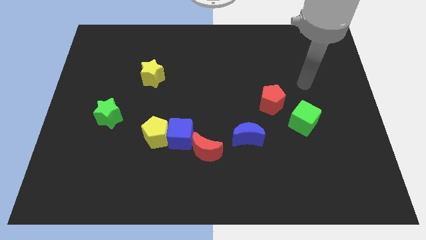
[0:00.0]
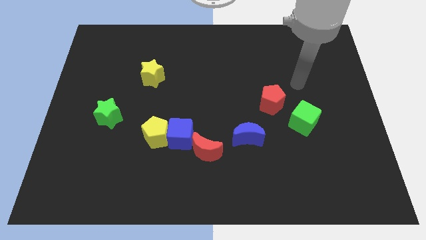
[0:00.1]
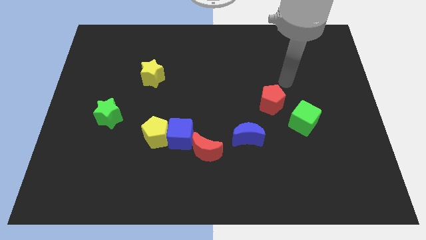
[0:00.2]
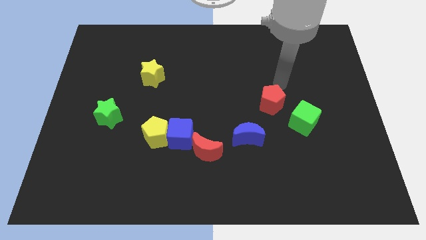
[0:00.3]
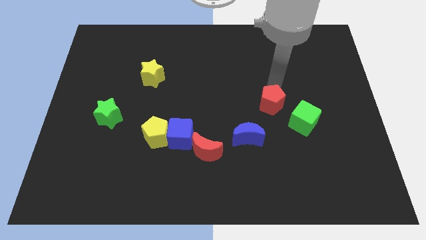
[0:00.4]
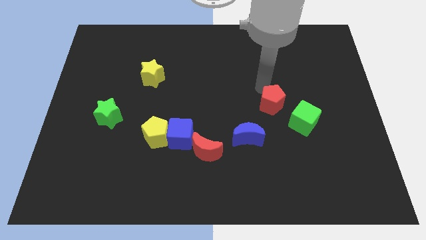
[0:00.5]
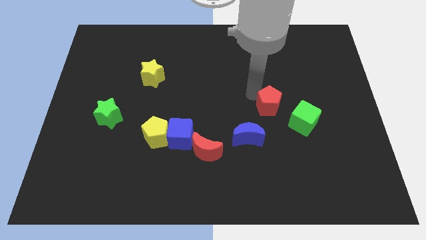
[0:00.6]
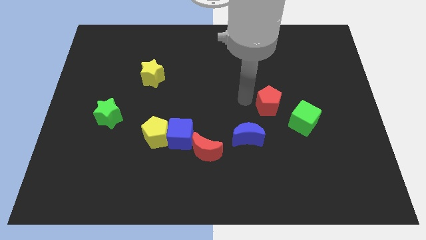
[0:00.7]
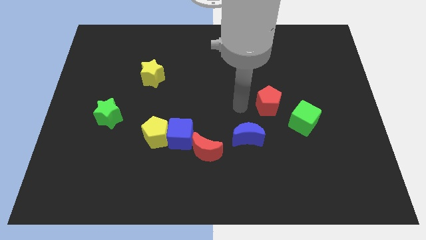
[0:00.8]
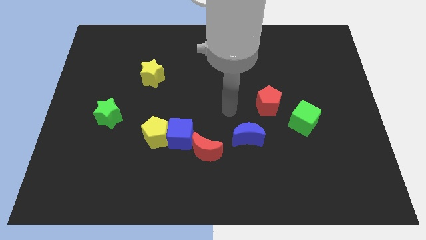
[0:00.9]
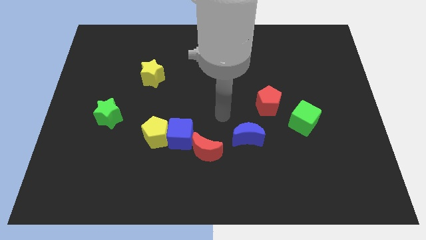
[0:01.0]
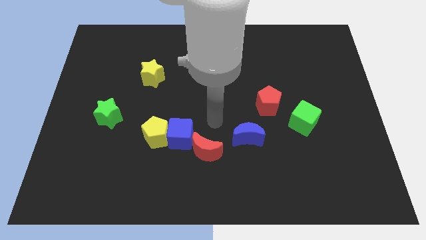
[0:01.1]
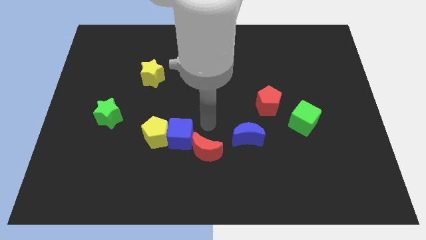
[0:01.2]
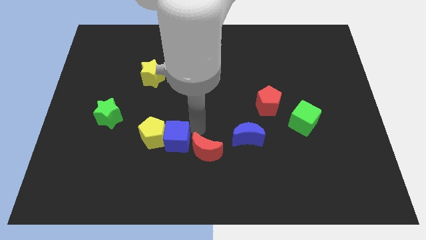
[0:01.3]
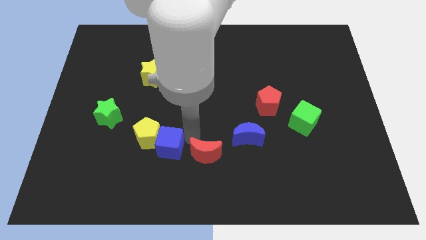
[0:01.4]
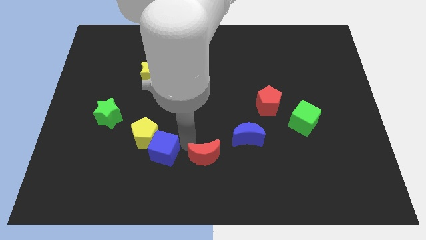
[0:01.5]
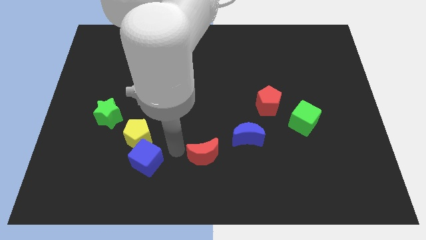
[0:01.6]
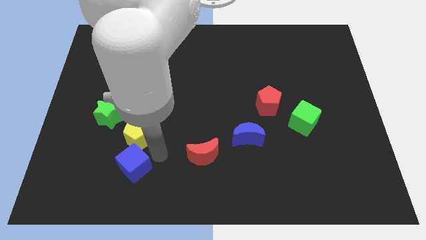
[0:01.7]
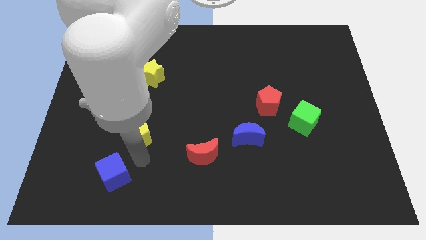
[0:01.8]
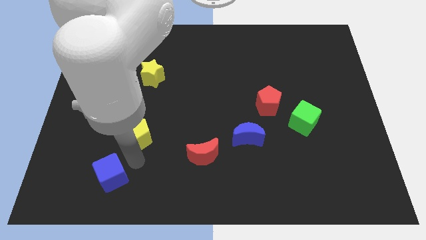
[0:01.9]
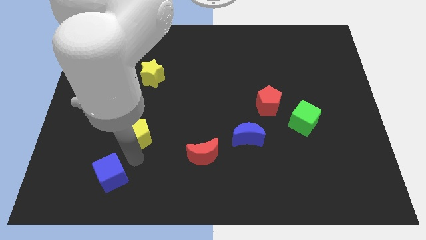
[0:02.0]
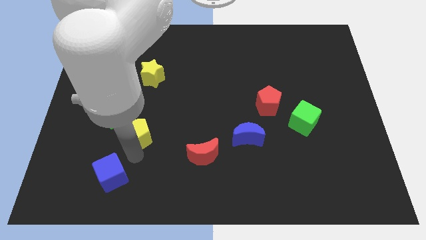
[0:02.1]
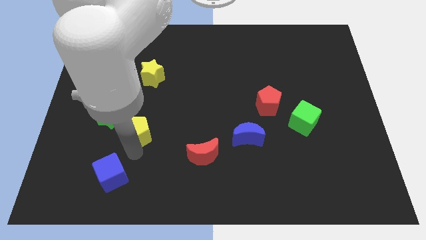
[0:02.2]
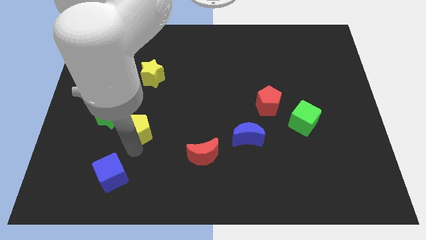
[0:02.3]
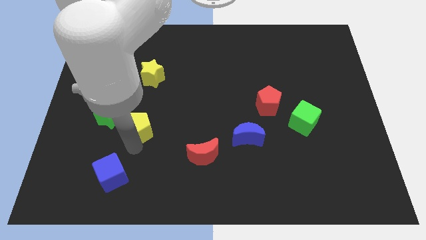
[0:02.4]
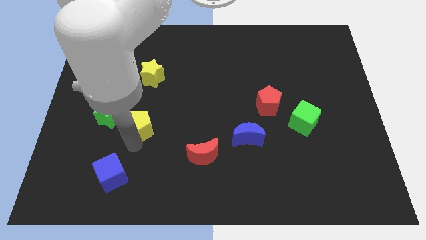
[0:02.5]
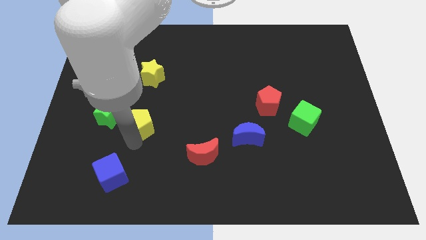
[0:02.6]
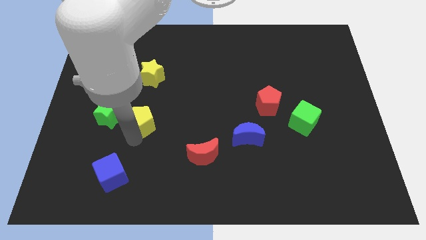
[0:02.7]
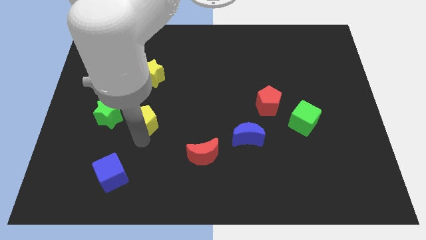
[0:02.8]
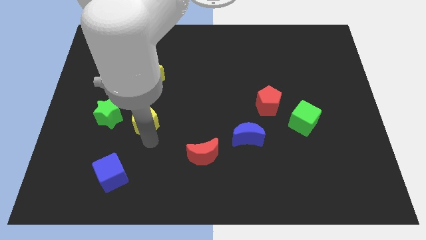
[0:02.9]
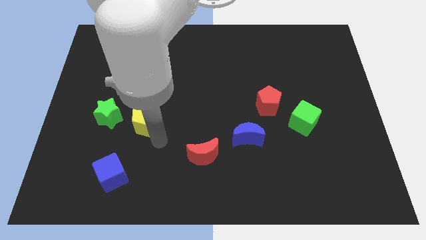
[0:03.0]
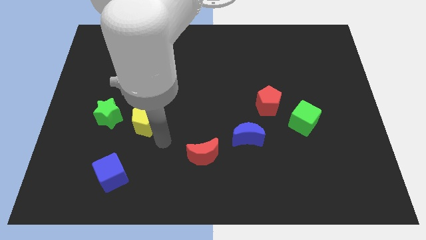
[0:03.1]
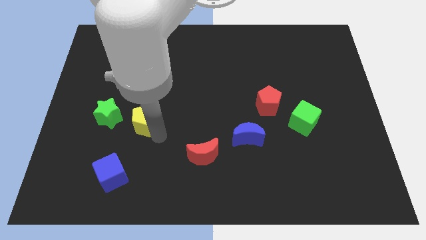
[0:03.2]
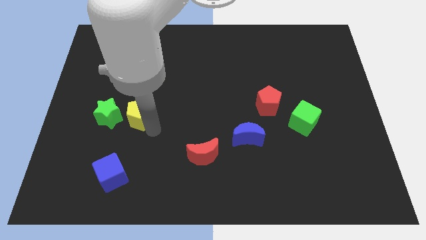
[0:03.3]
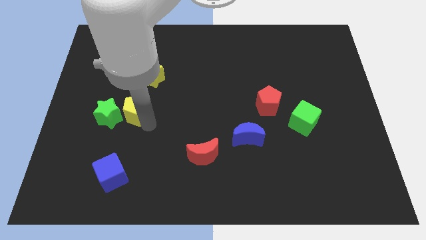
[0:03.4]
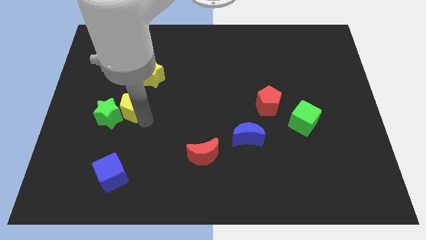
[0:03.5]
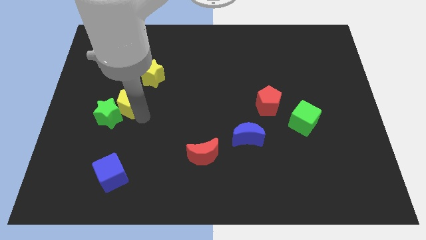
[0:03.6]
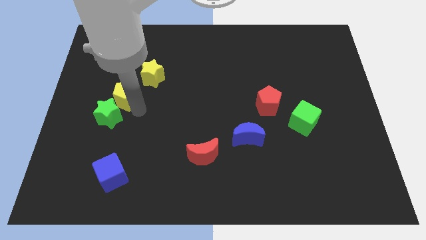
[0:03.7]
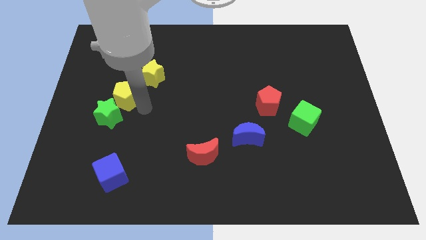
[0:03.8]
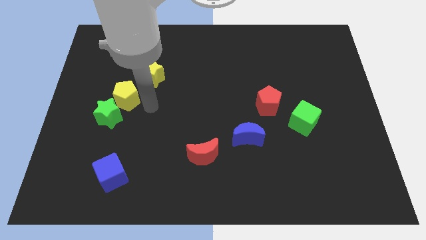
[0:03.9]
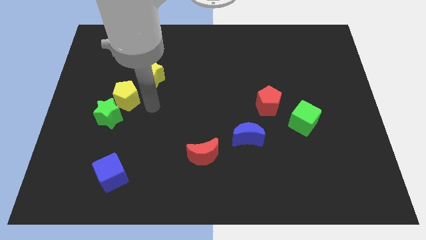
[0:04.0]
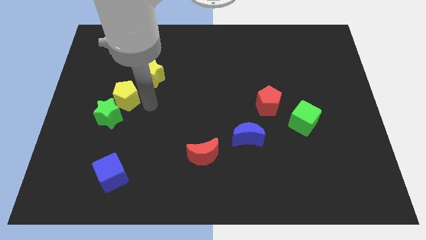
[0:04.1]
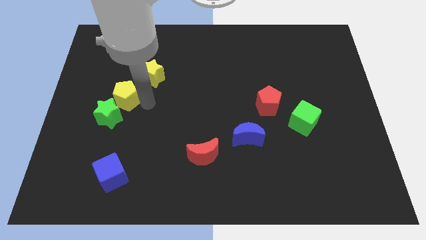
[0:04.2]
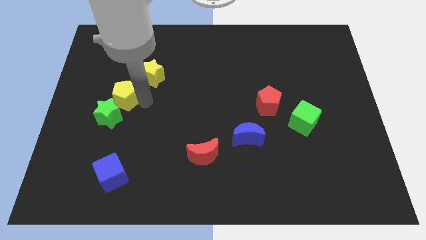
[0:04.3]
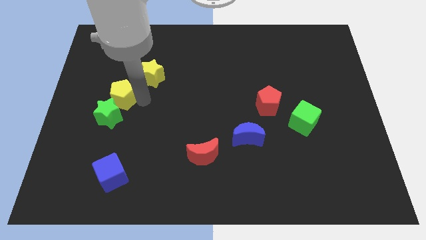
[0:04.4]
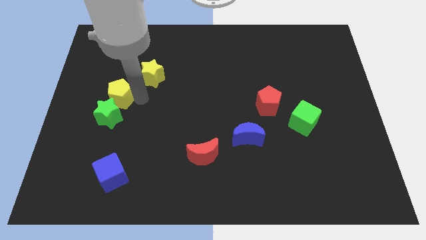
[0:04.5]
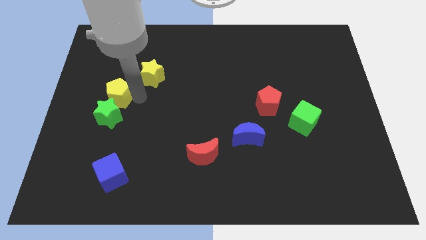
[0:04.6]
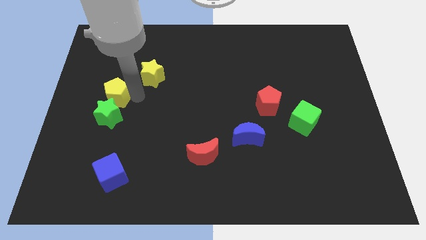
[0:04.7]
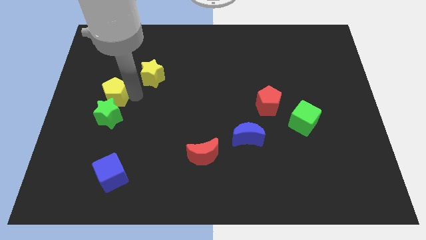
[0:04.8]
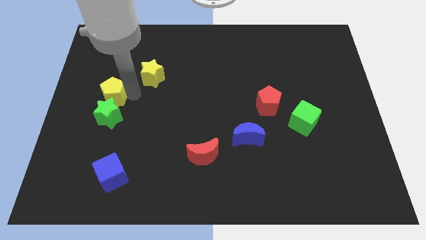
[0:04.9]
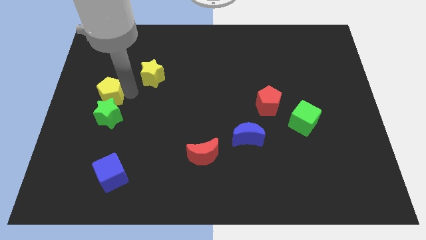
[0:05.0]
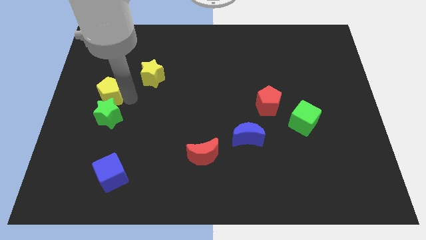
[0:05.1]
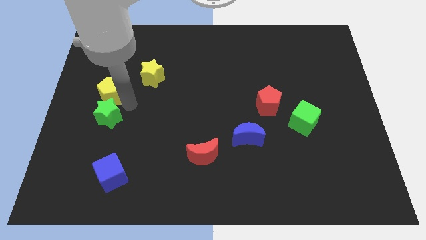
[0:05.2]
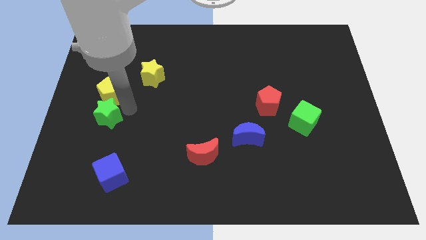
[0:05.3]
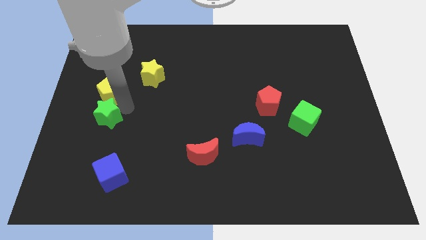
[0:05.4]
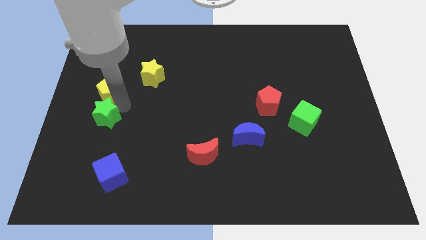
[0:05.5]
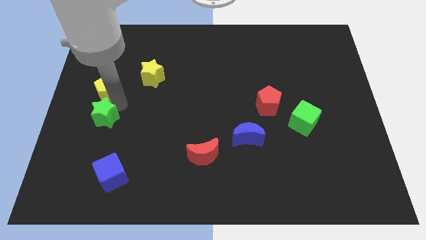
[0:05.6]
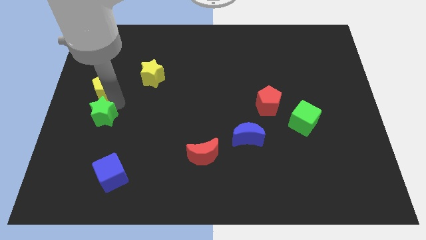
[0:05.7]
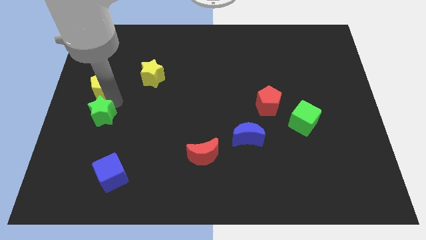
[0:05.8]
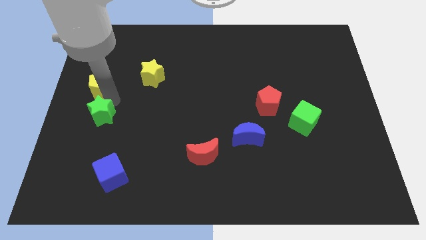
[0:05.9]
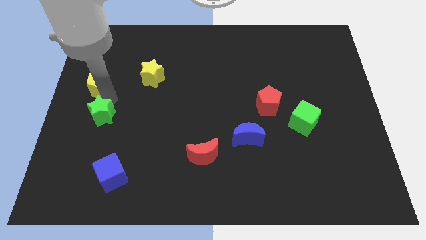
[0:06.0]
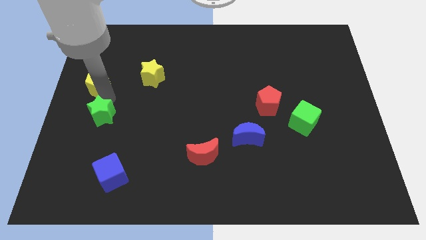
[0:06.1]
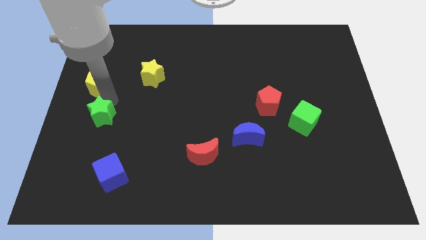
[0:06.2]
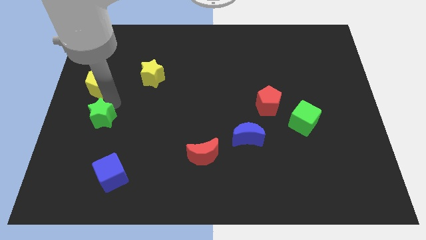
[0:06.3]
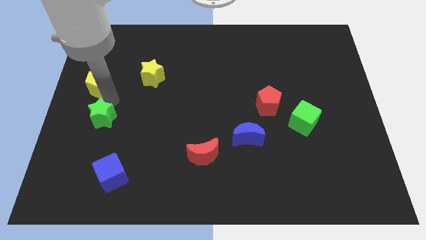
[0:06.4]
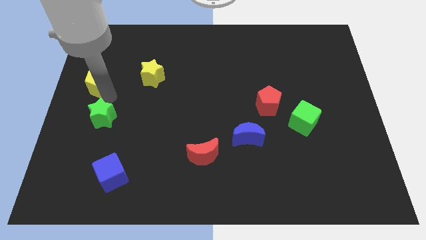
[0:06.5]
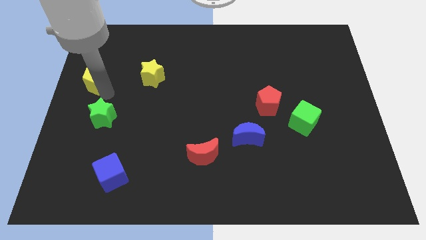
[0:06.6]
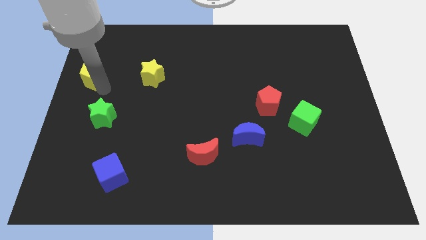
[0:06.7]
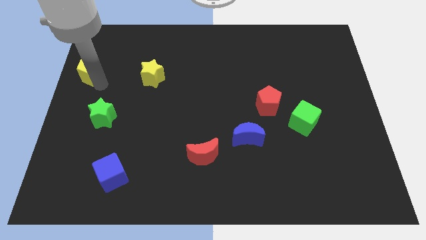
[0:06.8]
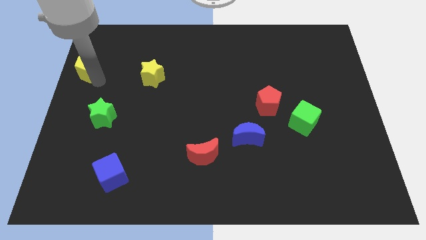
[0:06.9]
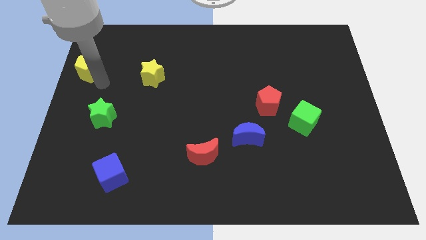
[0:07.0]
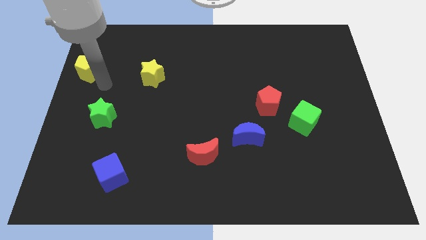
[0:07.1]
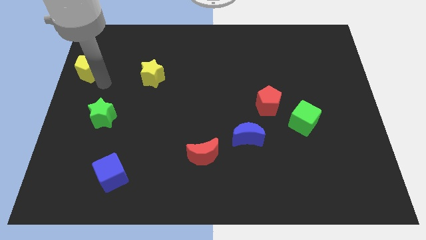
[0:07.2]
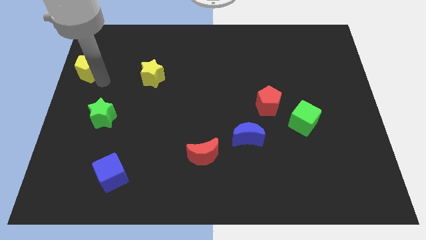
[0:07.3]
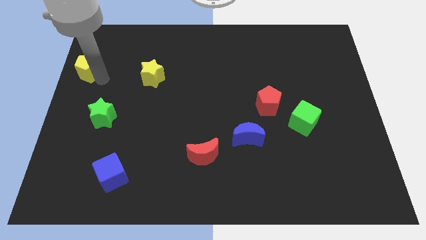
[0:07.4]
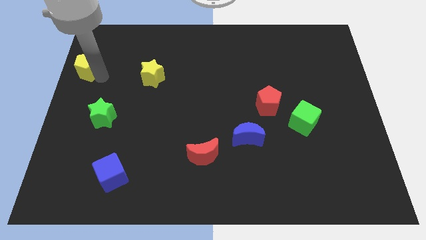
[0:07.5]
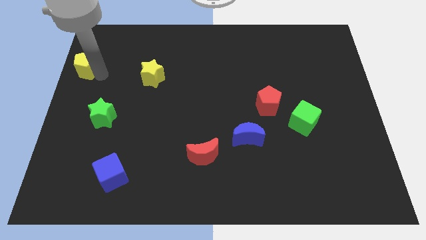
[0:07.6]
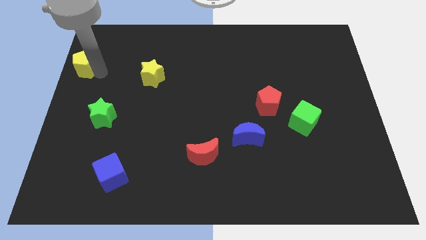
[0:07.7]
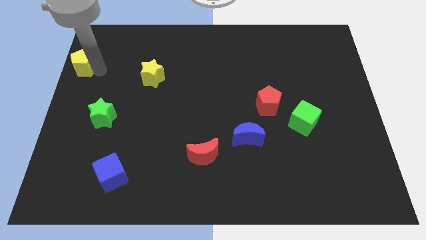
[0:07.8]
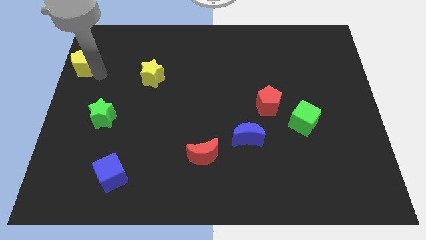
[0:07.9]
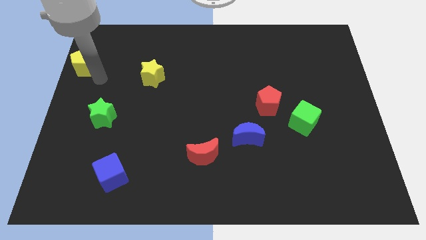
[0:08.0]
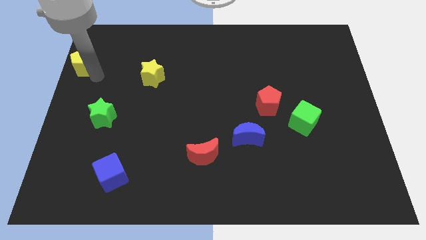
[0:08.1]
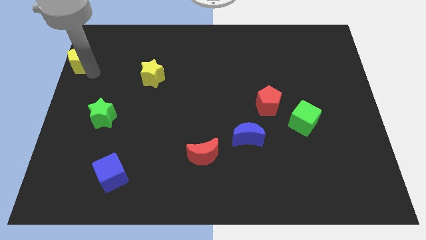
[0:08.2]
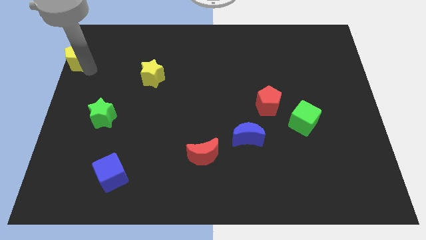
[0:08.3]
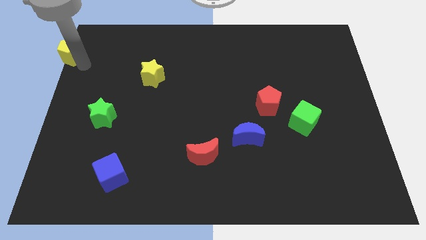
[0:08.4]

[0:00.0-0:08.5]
slide the yellow pentagon to the top left corner
